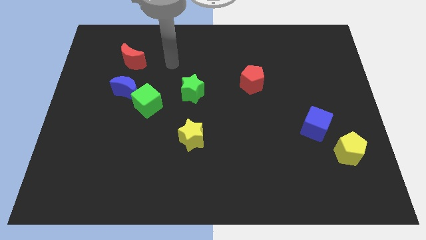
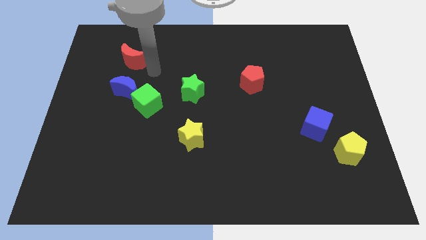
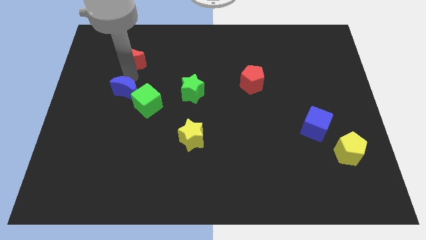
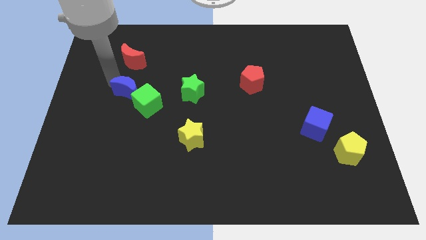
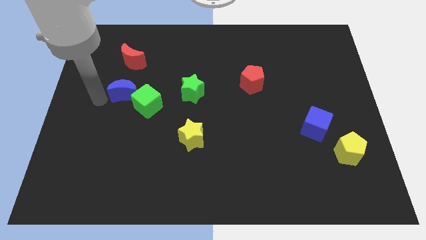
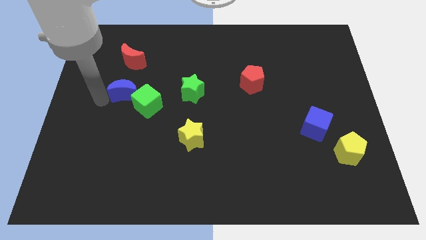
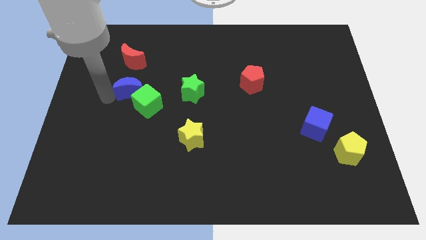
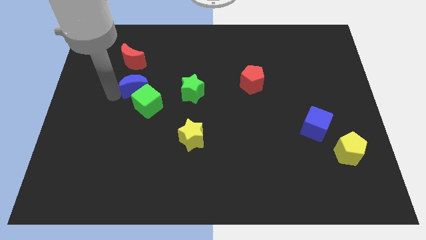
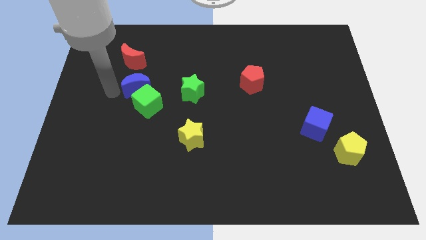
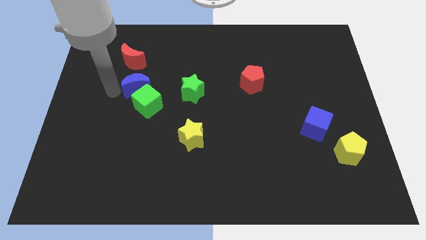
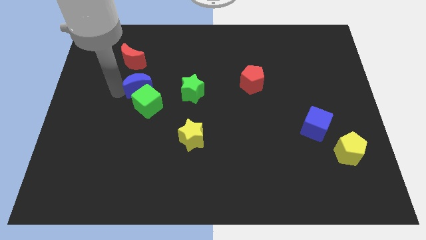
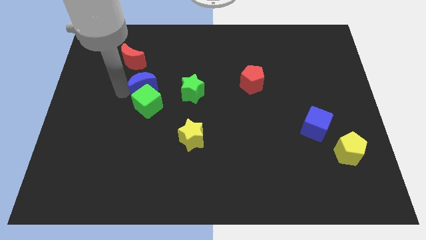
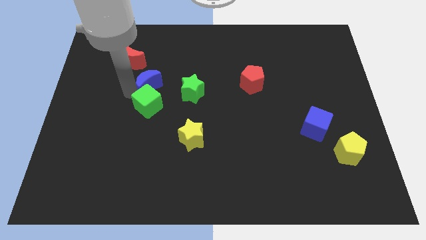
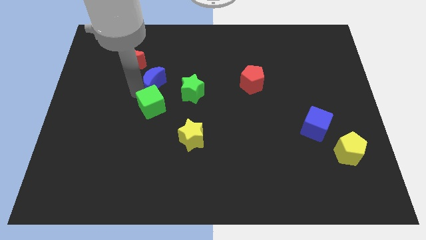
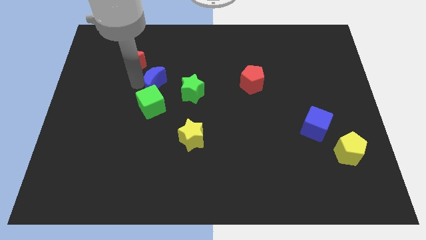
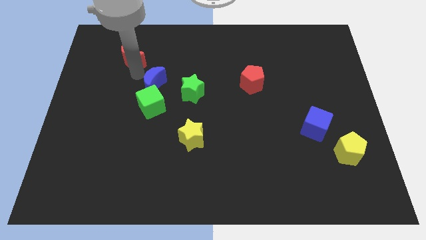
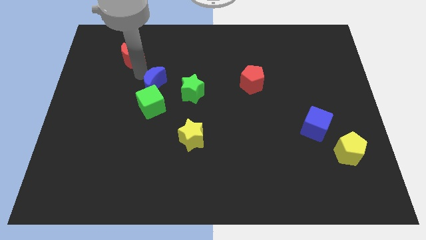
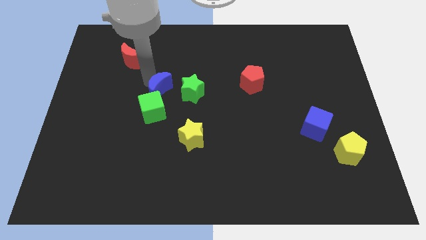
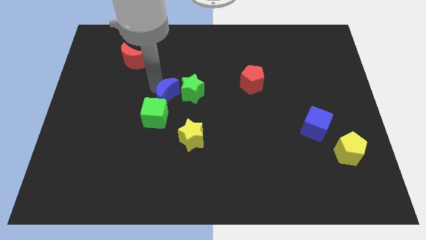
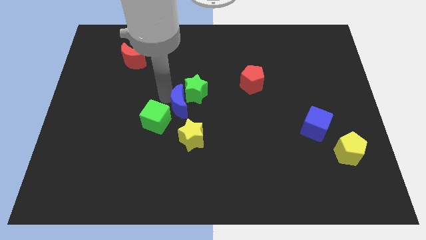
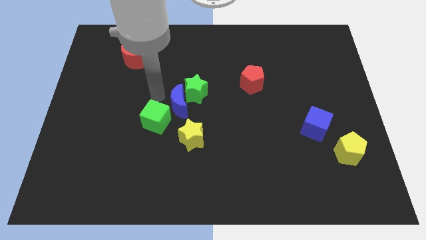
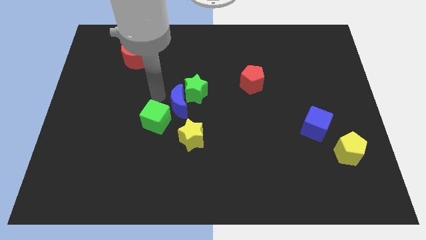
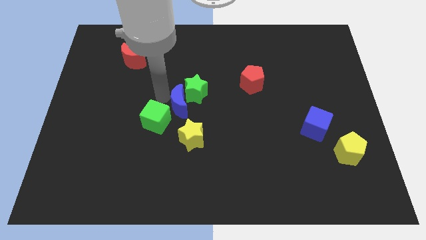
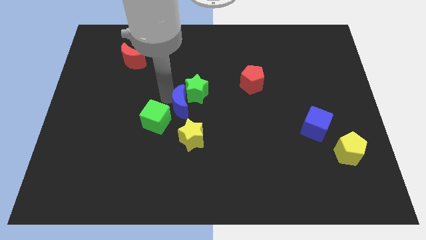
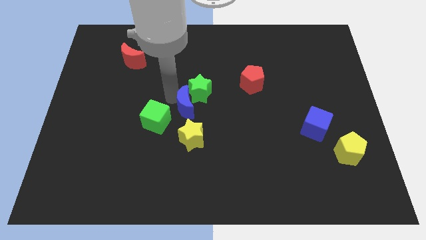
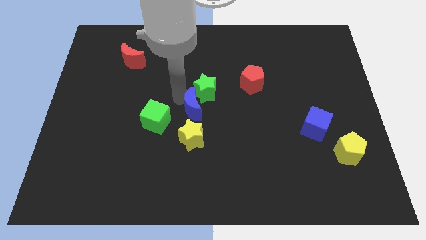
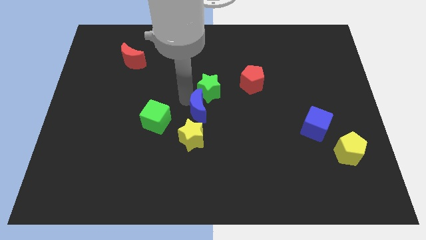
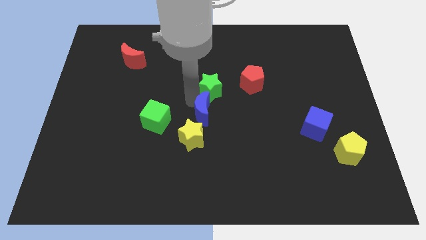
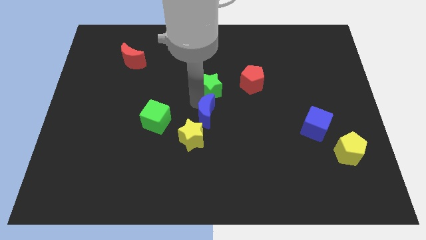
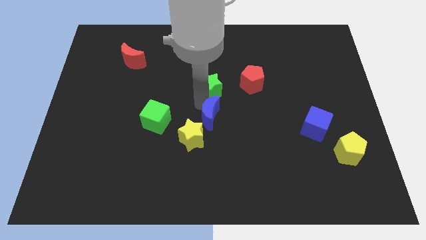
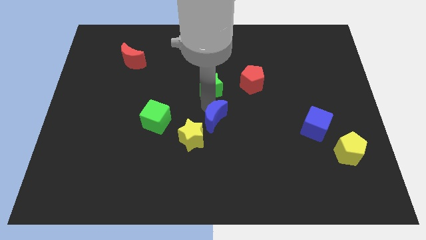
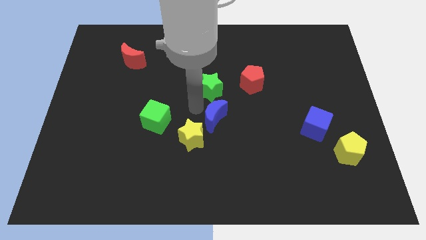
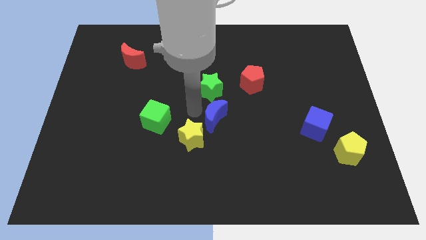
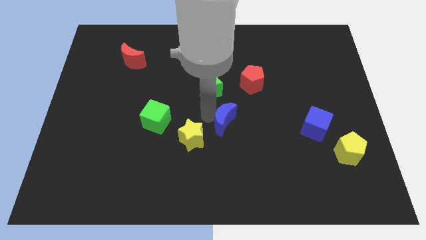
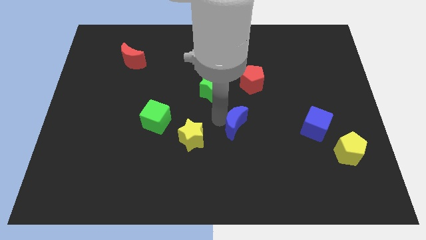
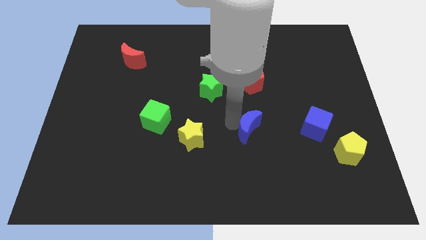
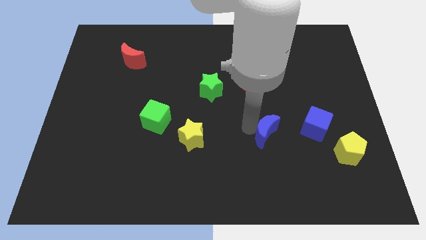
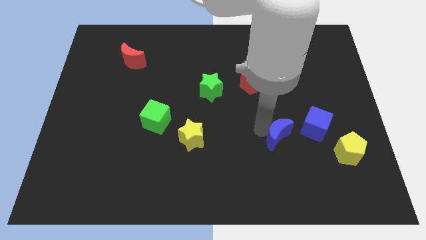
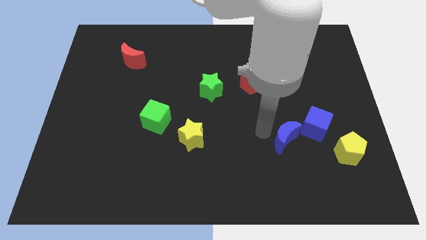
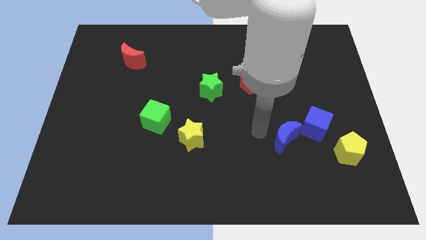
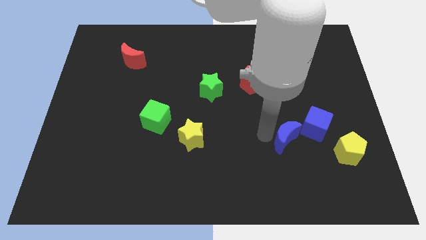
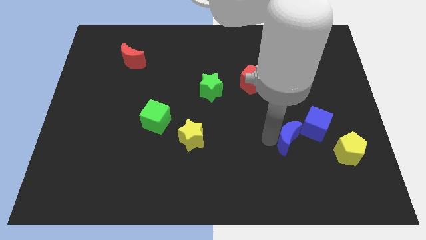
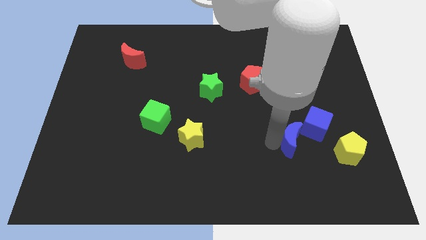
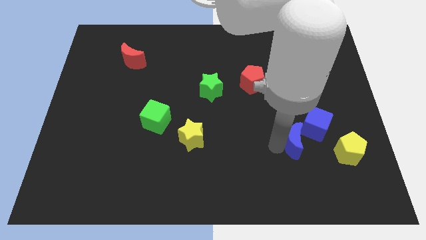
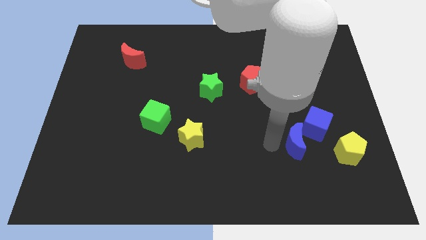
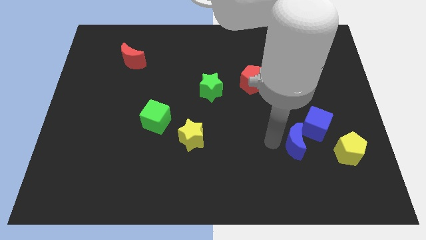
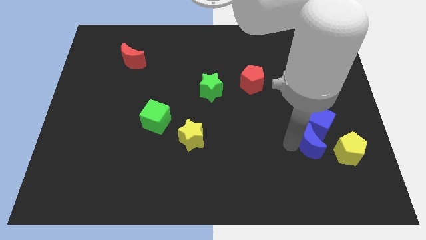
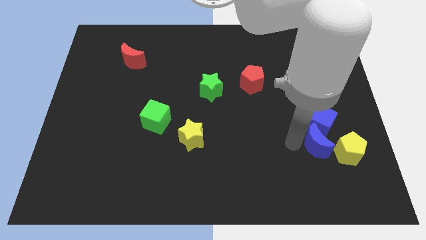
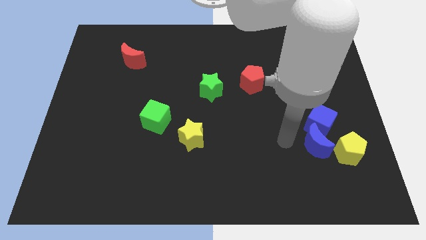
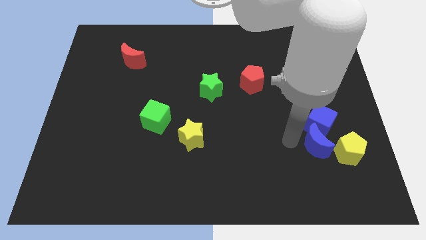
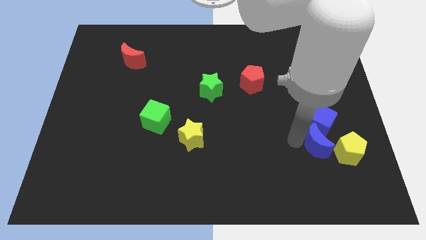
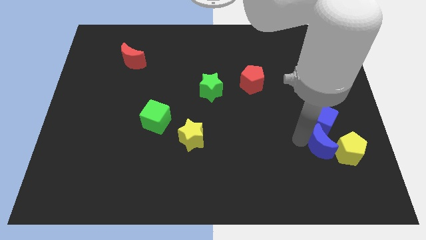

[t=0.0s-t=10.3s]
put the blue moon close to the yellow pentagon

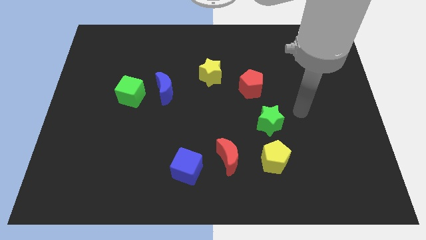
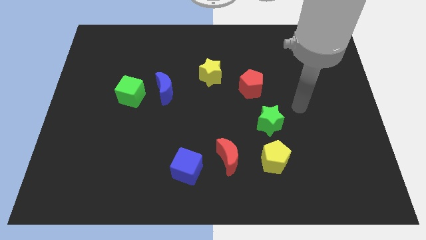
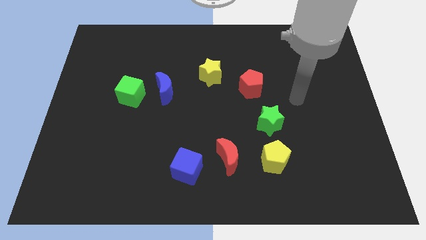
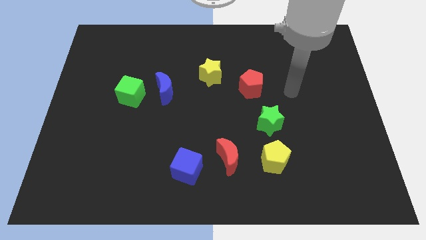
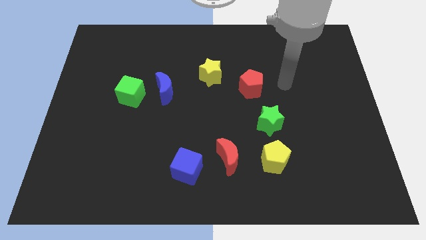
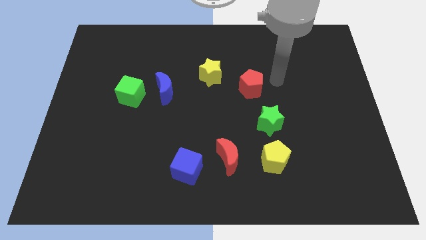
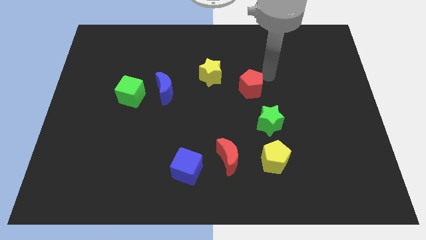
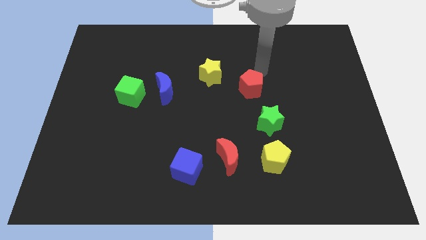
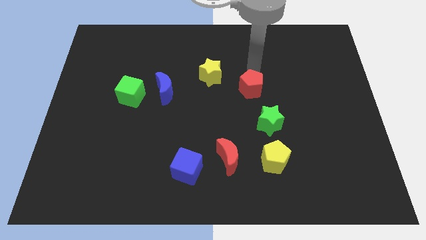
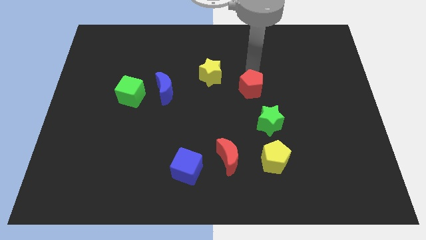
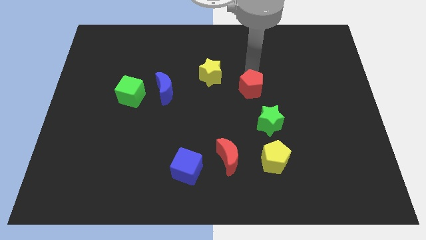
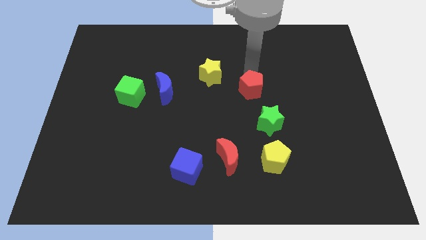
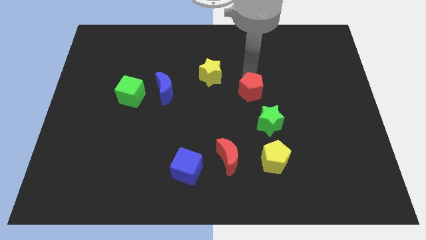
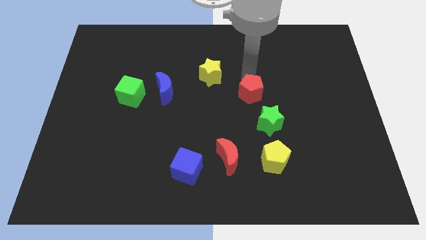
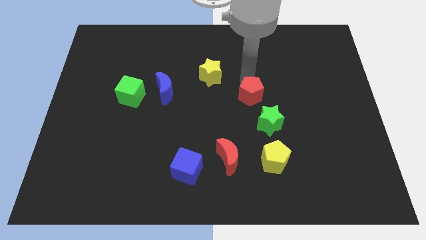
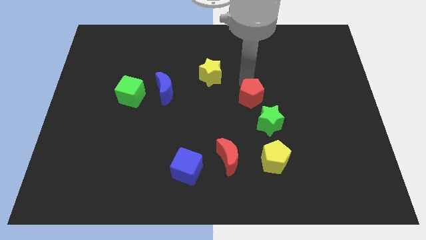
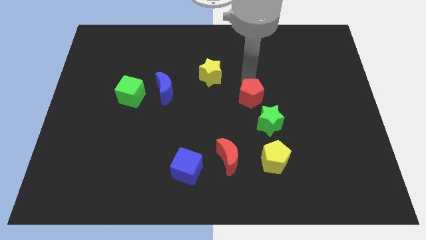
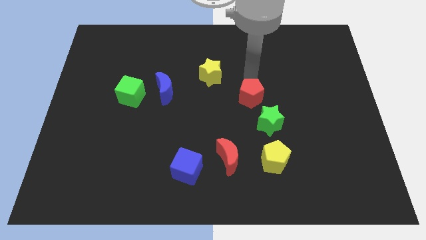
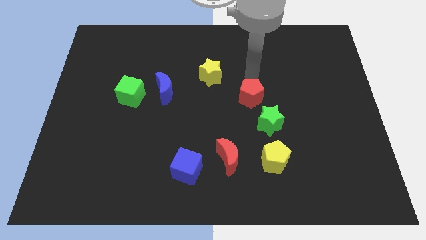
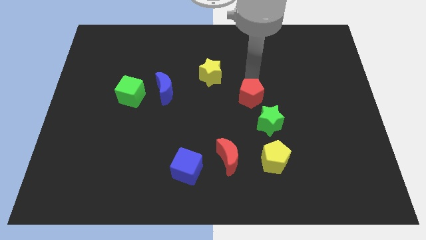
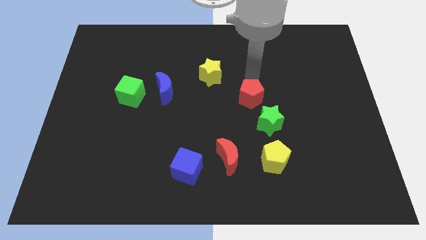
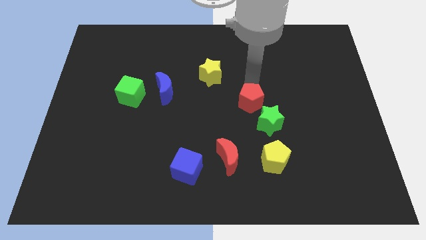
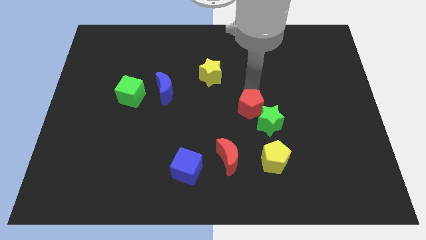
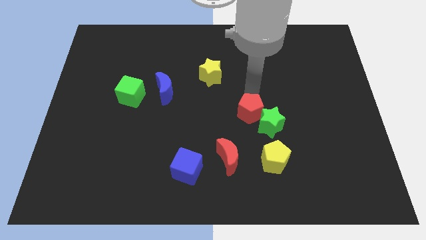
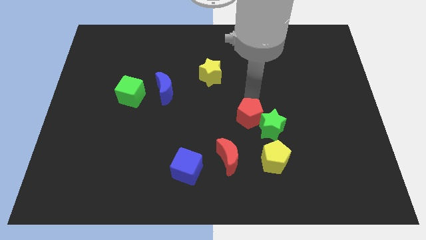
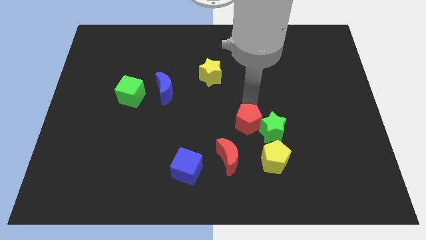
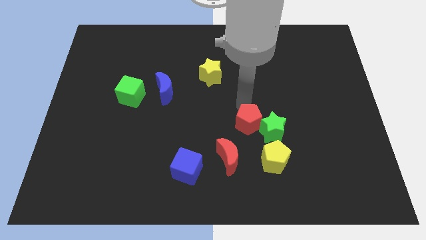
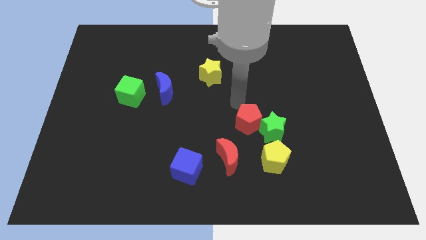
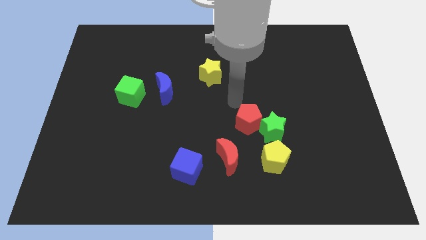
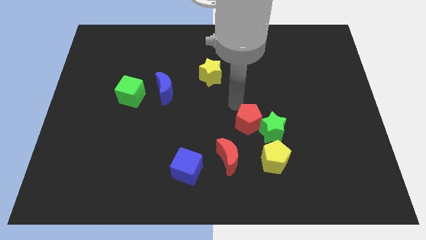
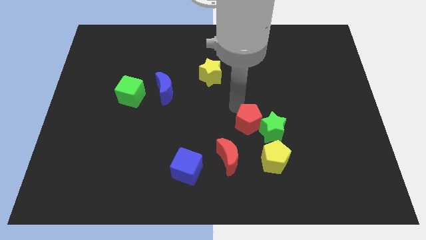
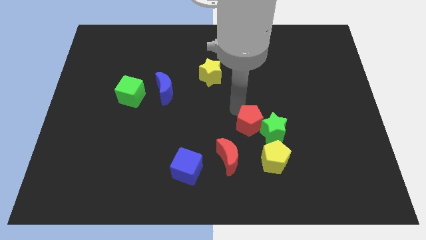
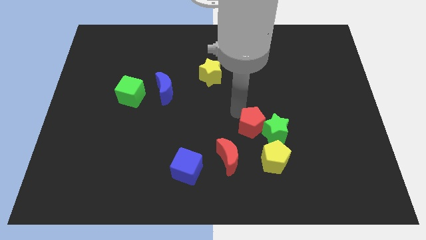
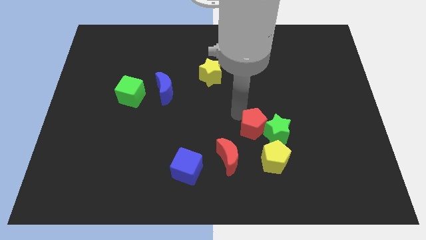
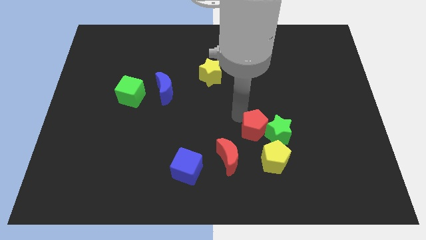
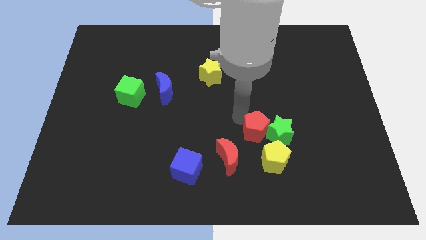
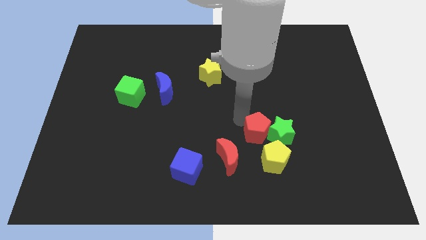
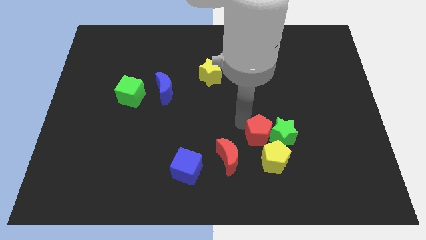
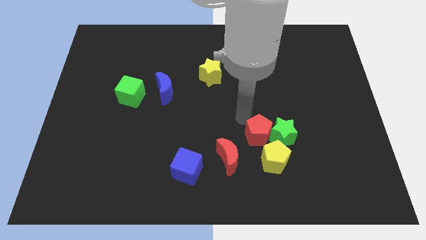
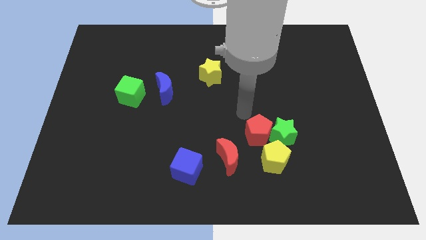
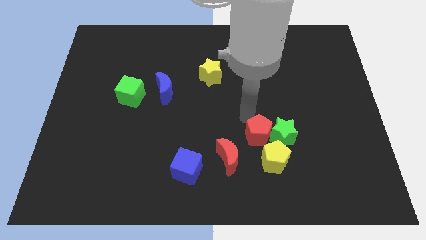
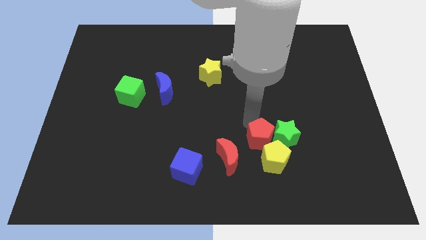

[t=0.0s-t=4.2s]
slide the red pentagon towards the yellow pentagon
